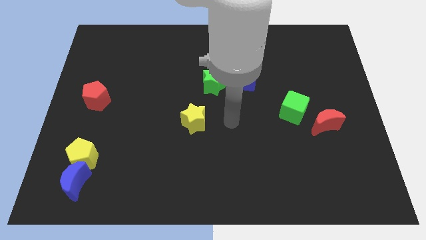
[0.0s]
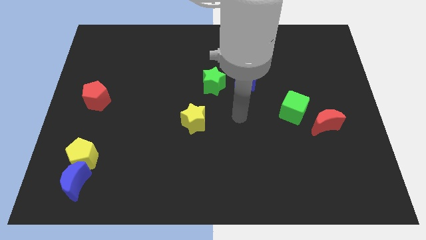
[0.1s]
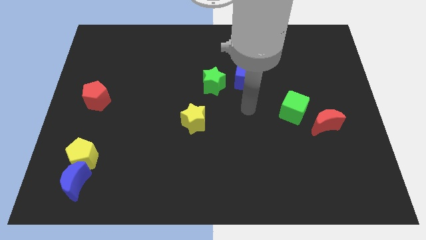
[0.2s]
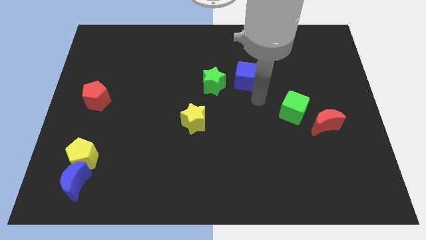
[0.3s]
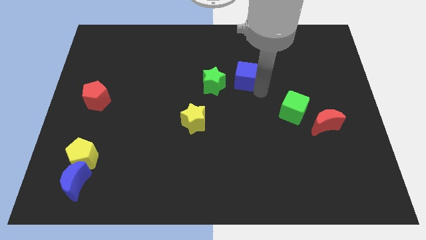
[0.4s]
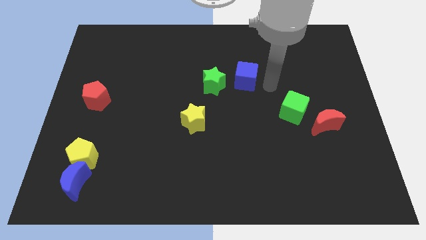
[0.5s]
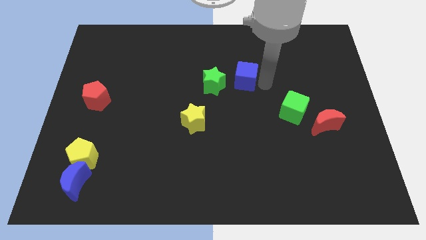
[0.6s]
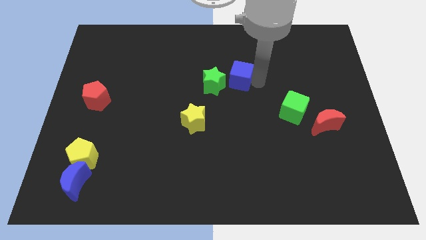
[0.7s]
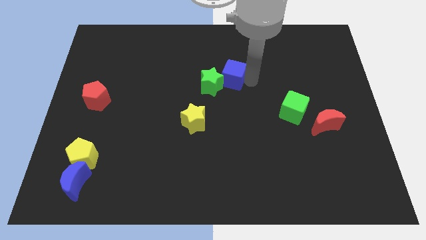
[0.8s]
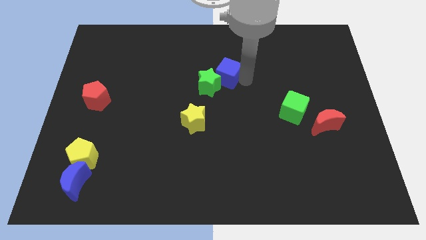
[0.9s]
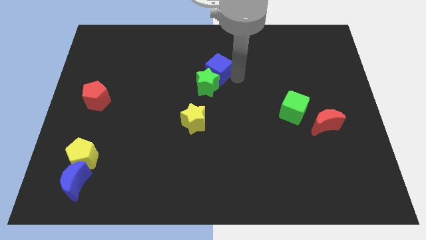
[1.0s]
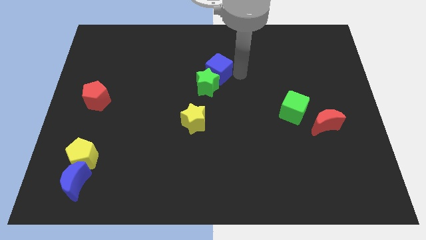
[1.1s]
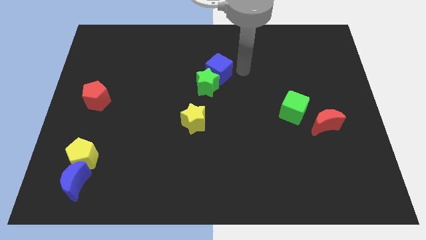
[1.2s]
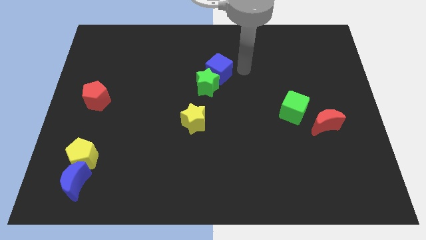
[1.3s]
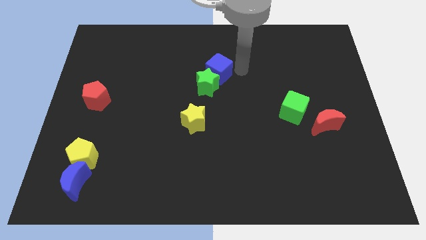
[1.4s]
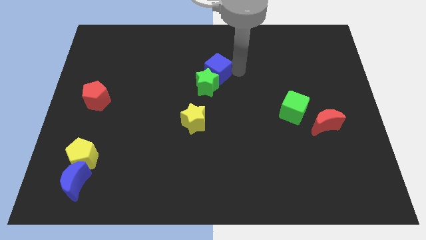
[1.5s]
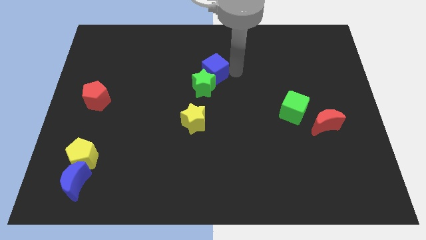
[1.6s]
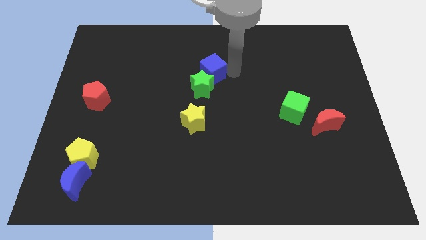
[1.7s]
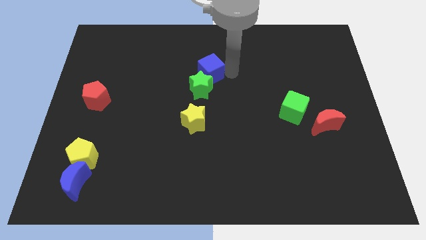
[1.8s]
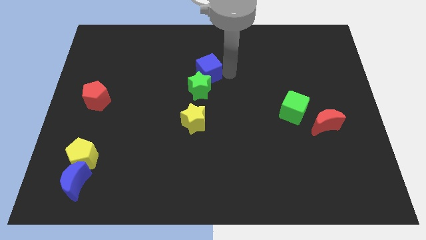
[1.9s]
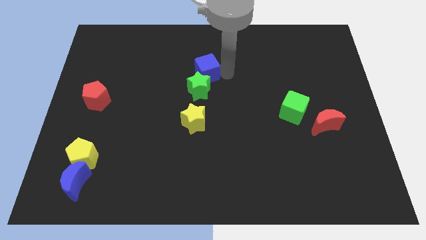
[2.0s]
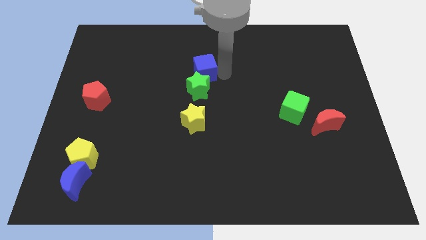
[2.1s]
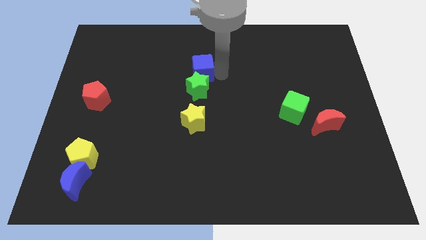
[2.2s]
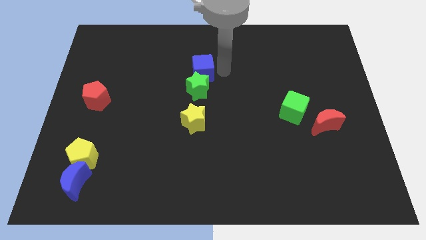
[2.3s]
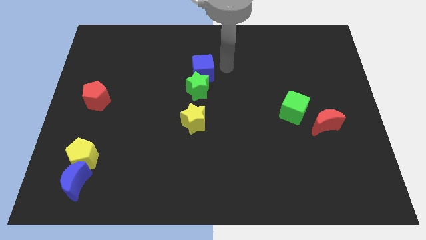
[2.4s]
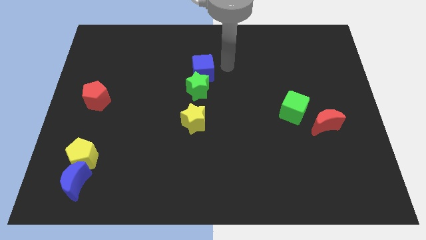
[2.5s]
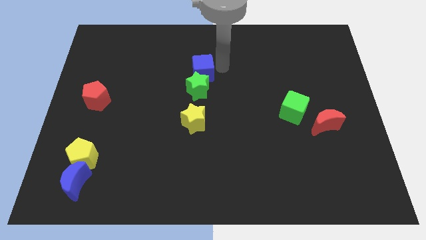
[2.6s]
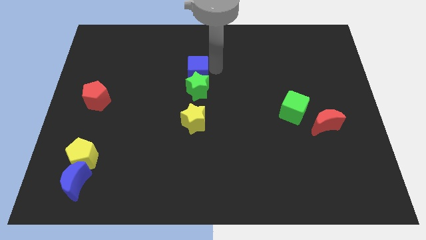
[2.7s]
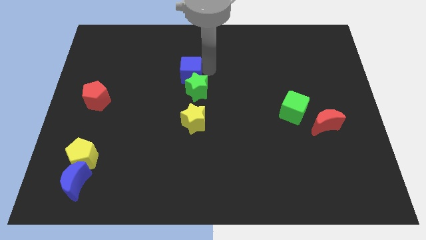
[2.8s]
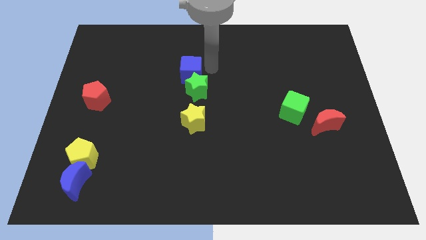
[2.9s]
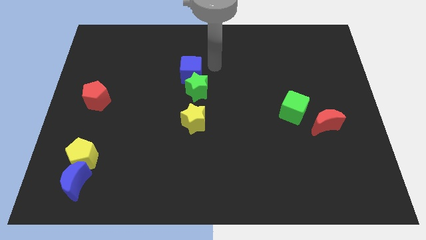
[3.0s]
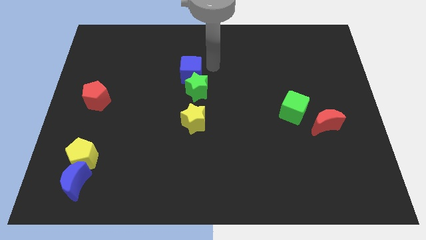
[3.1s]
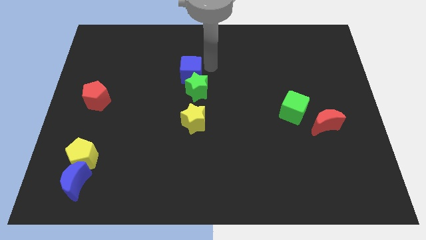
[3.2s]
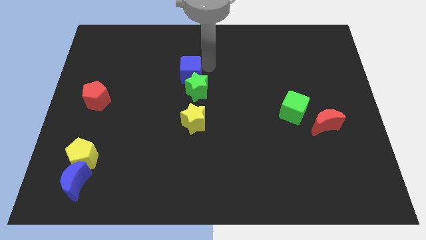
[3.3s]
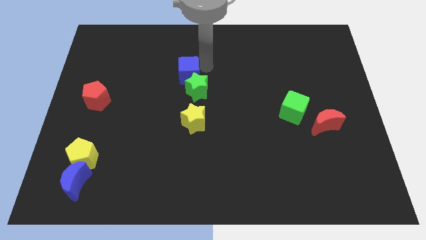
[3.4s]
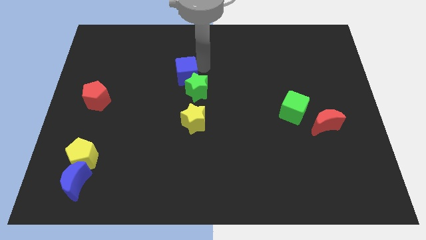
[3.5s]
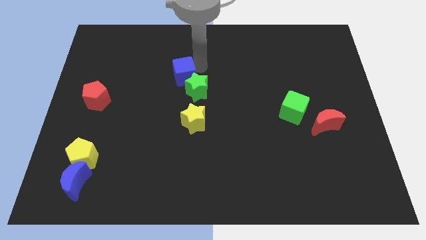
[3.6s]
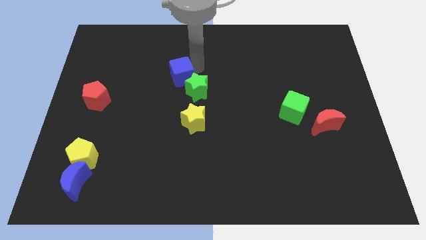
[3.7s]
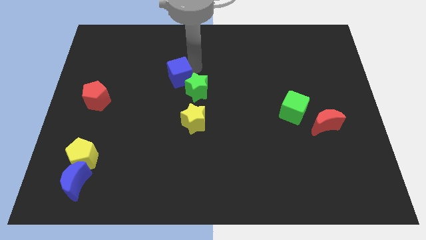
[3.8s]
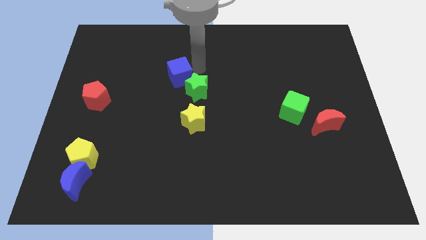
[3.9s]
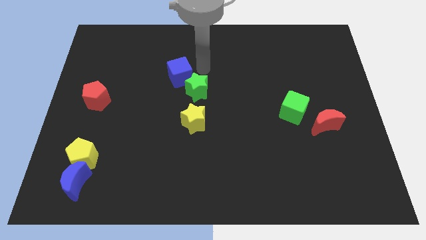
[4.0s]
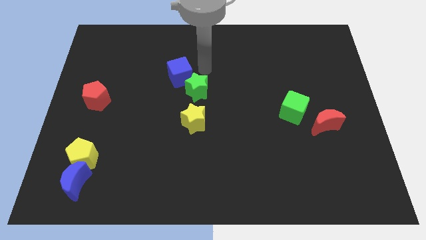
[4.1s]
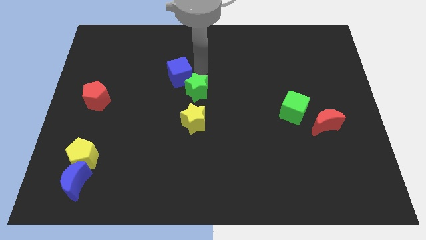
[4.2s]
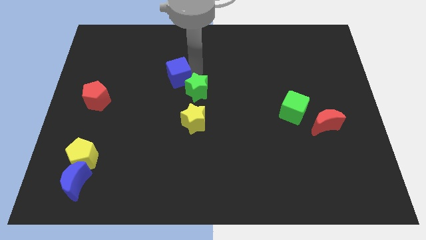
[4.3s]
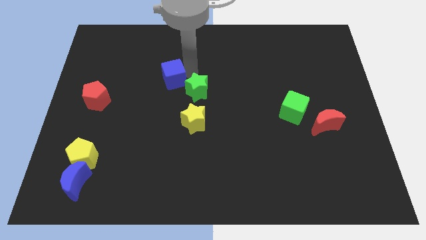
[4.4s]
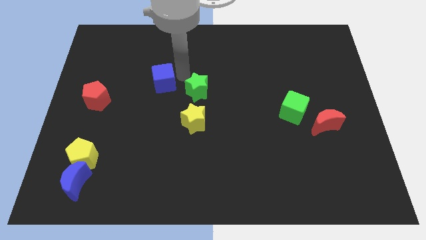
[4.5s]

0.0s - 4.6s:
move the blue cube left

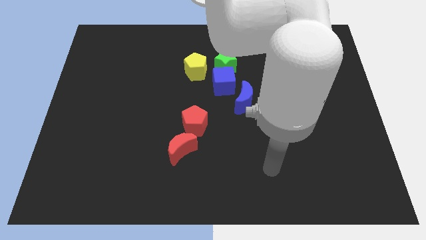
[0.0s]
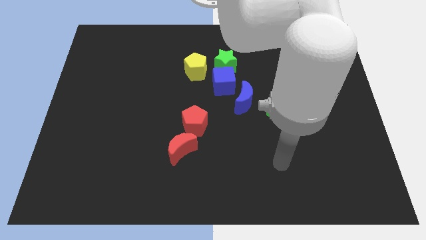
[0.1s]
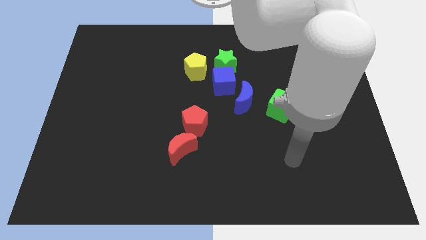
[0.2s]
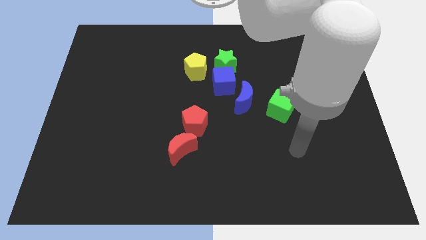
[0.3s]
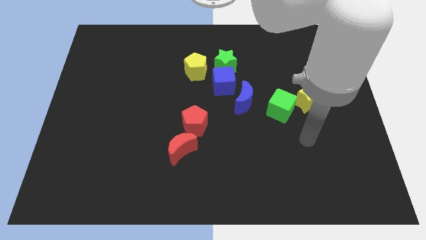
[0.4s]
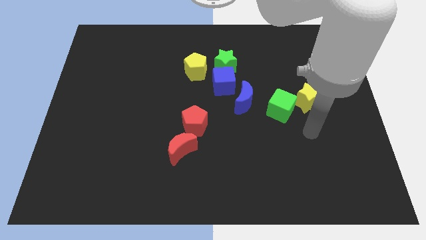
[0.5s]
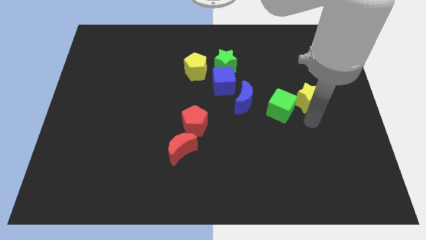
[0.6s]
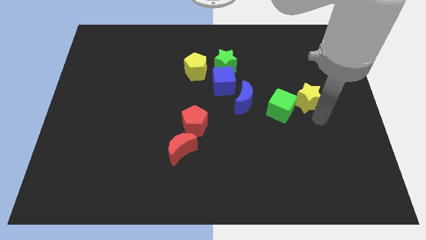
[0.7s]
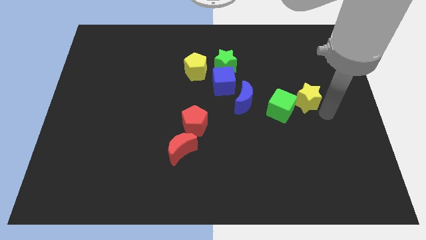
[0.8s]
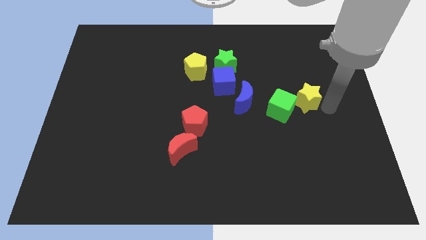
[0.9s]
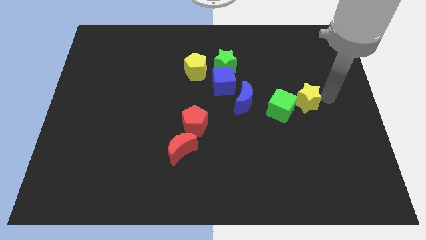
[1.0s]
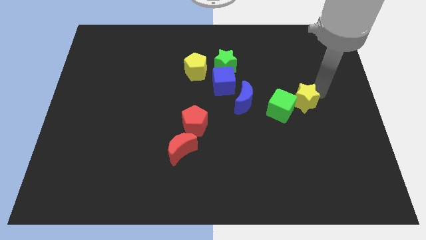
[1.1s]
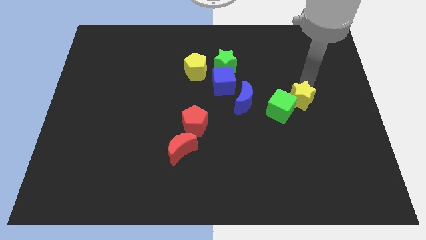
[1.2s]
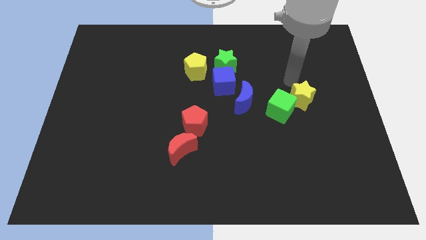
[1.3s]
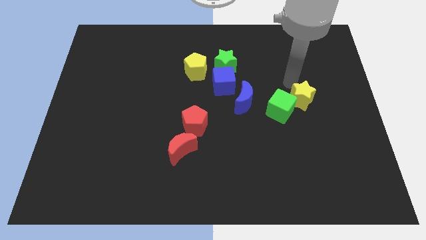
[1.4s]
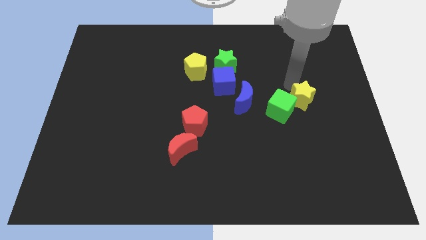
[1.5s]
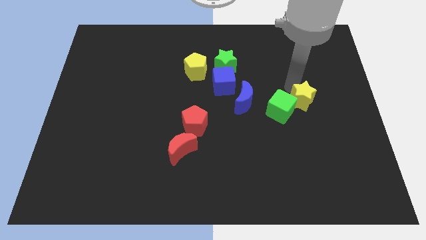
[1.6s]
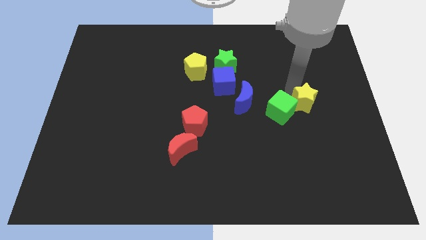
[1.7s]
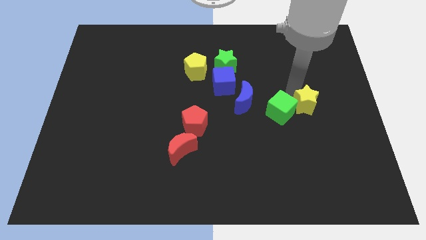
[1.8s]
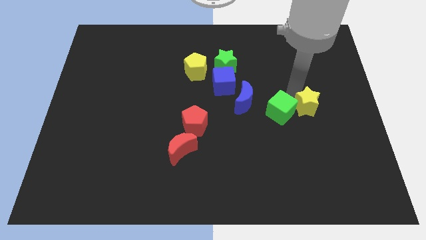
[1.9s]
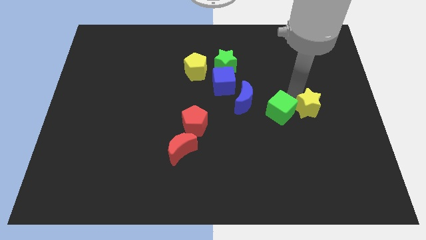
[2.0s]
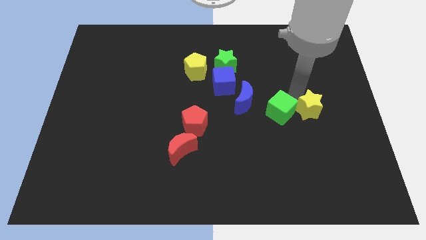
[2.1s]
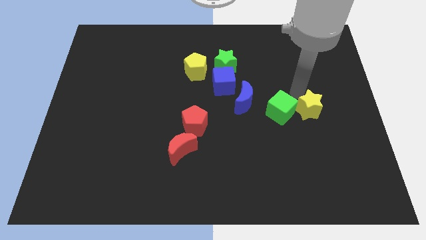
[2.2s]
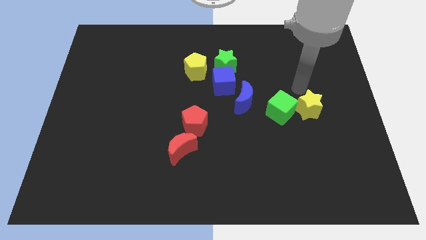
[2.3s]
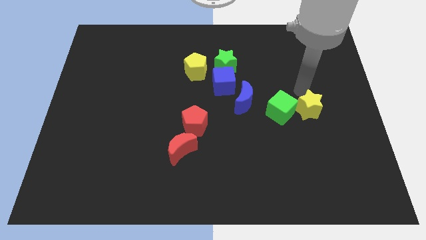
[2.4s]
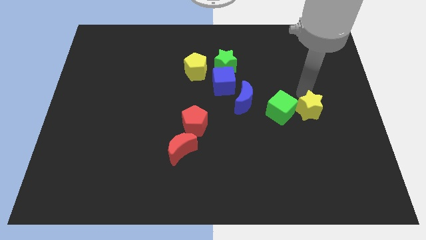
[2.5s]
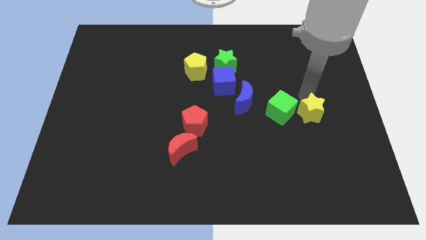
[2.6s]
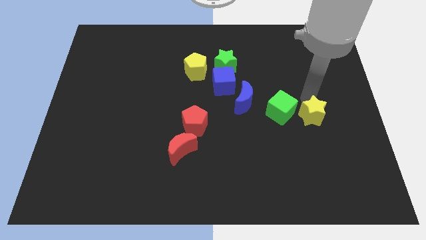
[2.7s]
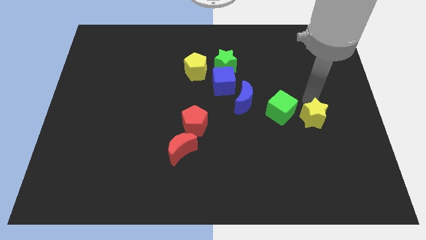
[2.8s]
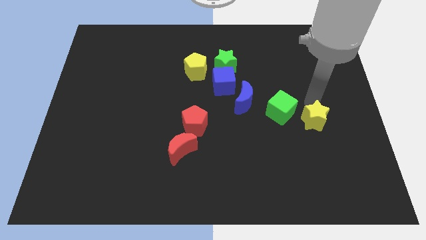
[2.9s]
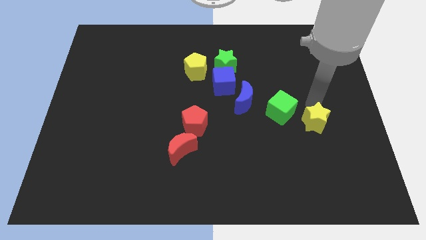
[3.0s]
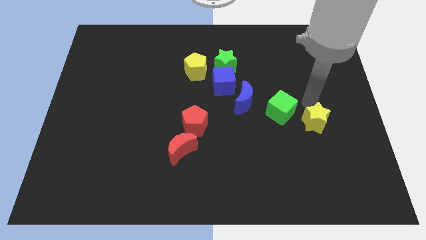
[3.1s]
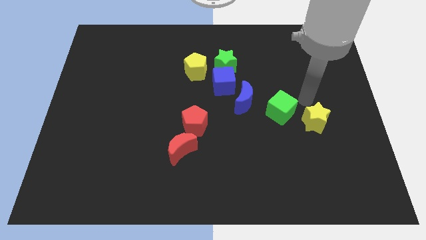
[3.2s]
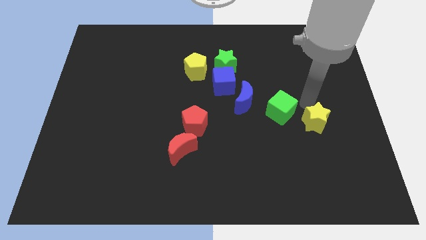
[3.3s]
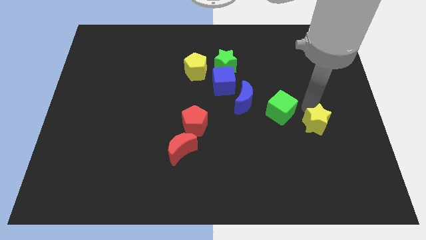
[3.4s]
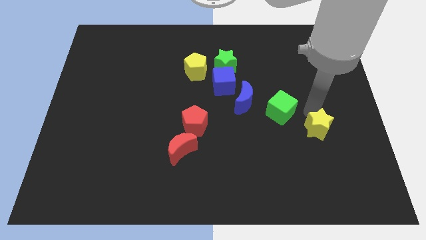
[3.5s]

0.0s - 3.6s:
push the yellow star a little bit downwards
